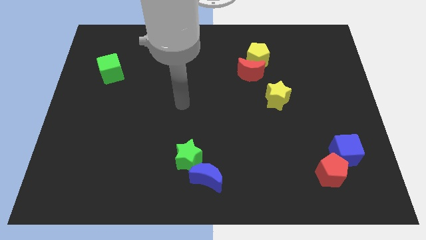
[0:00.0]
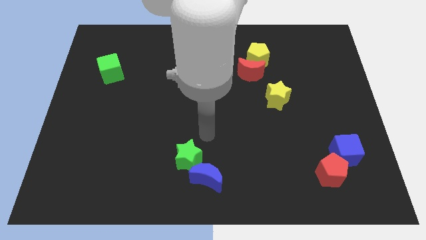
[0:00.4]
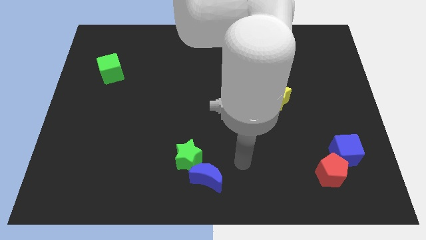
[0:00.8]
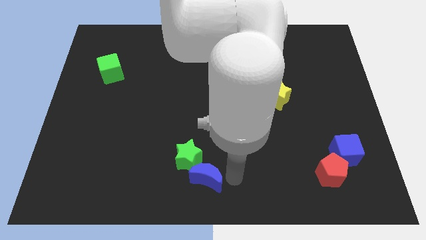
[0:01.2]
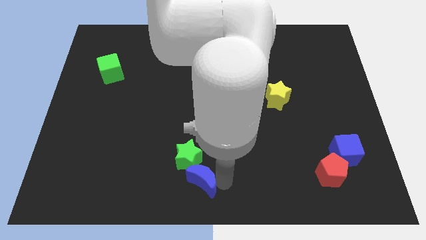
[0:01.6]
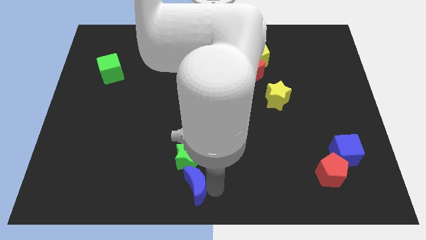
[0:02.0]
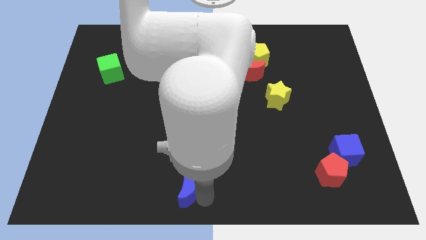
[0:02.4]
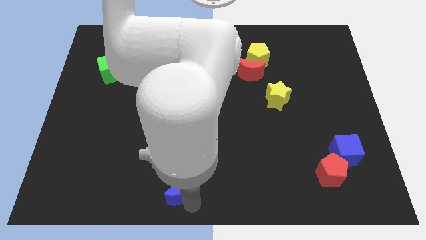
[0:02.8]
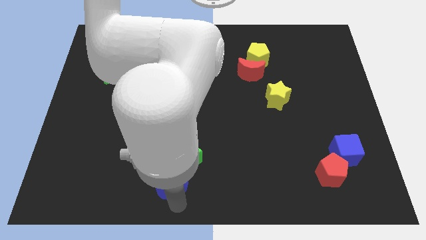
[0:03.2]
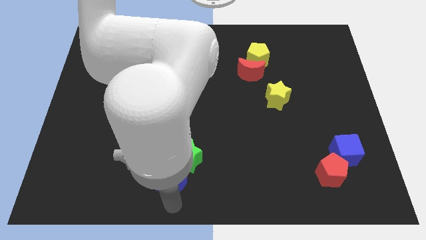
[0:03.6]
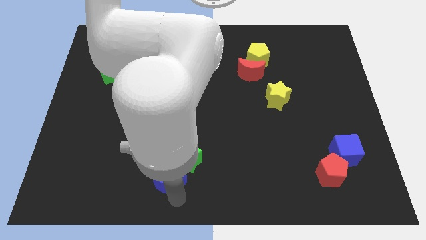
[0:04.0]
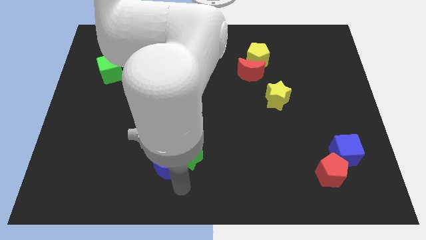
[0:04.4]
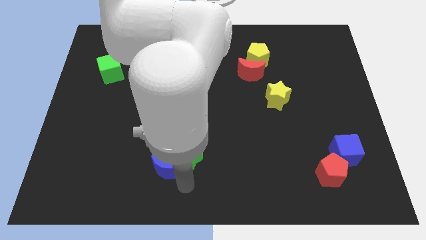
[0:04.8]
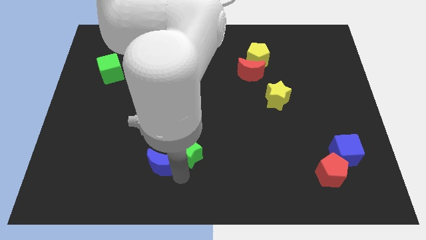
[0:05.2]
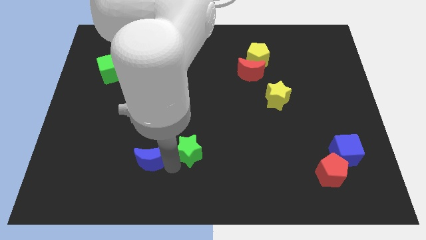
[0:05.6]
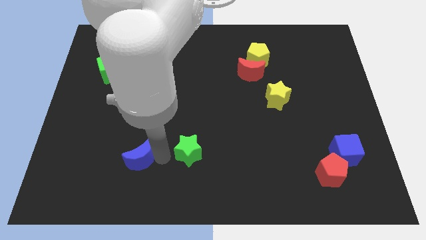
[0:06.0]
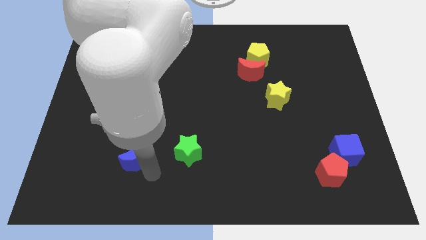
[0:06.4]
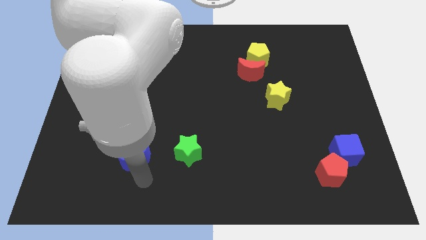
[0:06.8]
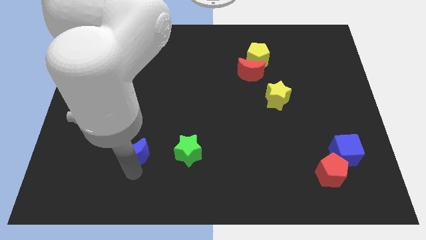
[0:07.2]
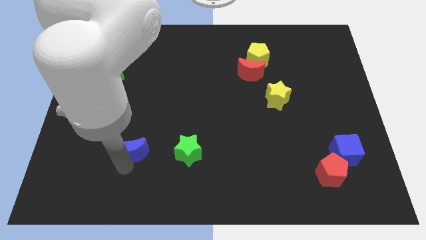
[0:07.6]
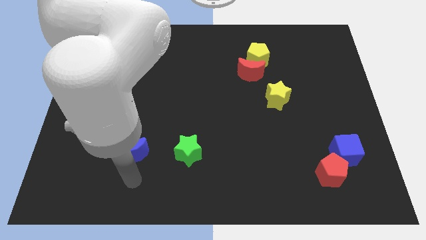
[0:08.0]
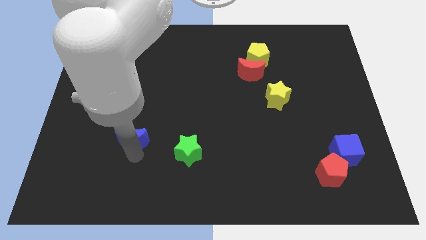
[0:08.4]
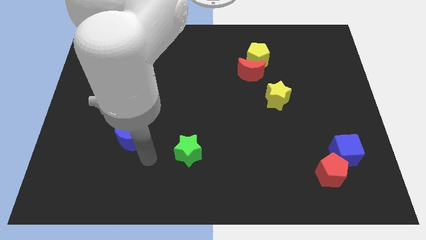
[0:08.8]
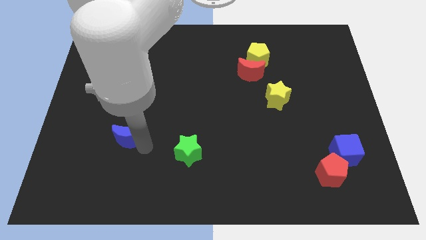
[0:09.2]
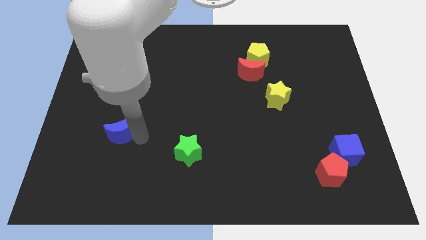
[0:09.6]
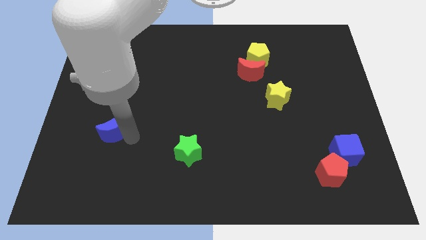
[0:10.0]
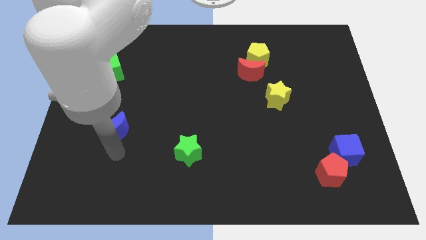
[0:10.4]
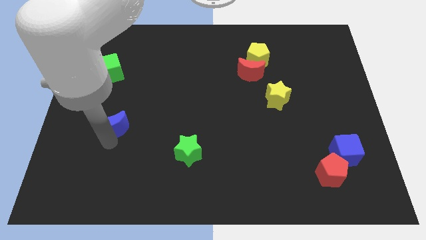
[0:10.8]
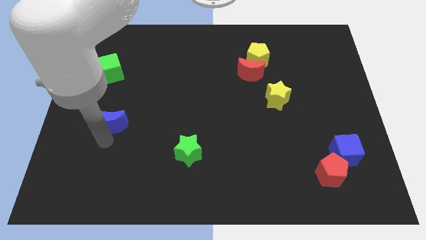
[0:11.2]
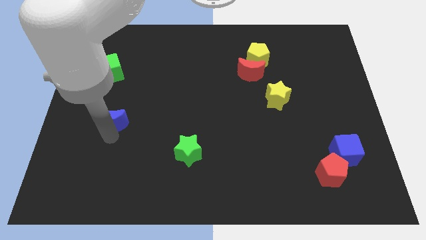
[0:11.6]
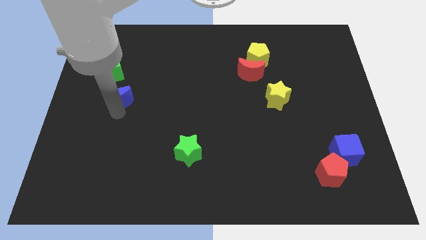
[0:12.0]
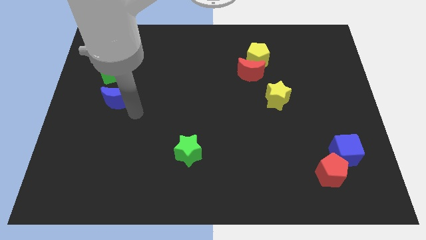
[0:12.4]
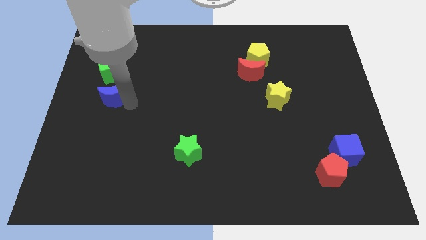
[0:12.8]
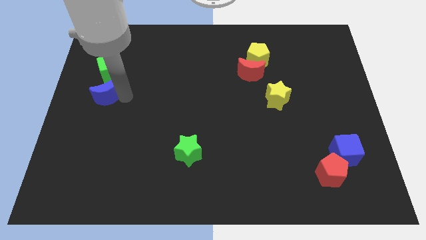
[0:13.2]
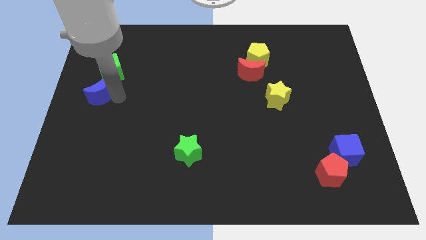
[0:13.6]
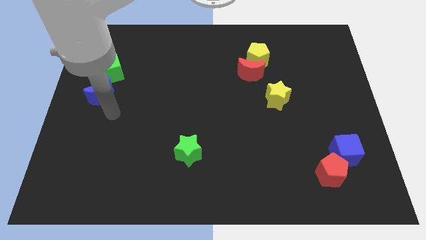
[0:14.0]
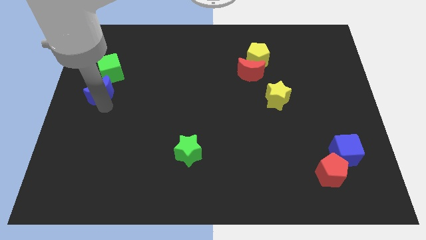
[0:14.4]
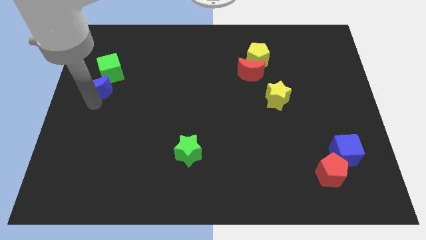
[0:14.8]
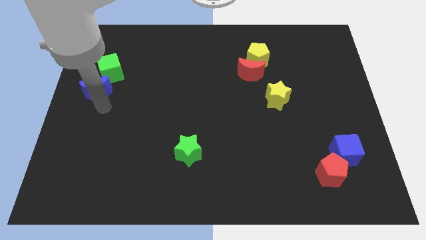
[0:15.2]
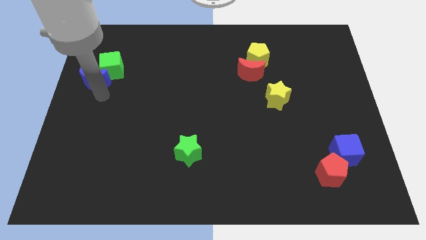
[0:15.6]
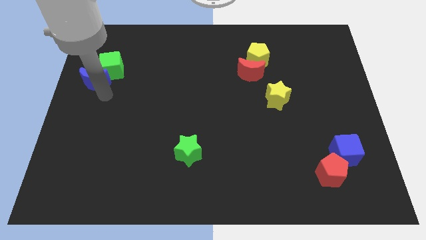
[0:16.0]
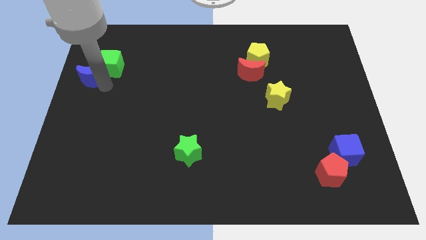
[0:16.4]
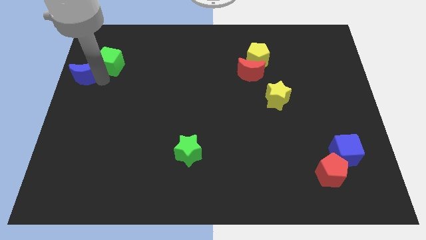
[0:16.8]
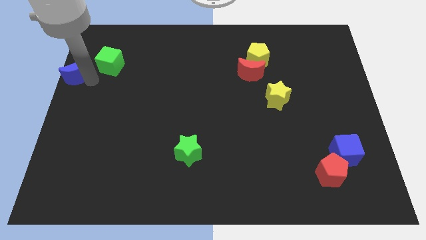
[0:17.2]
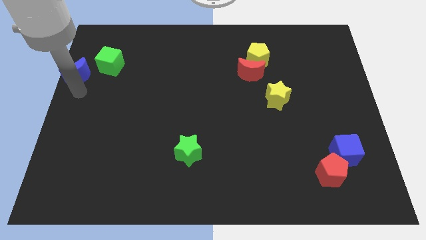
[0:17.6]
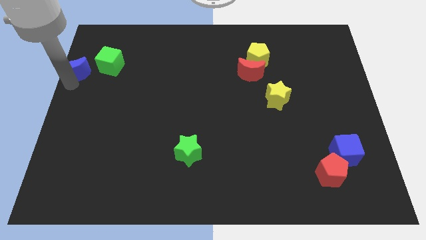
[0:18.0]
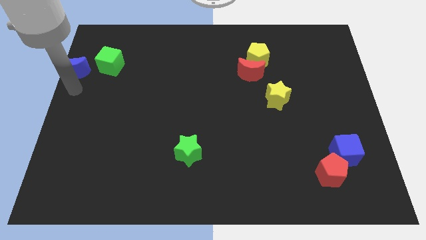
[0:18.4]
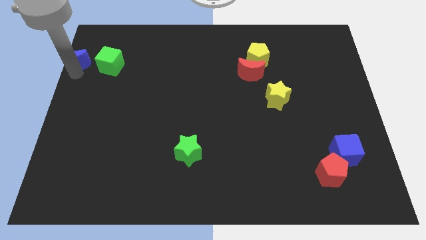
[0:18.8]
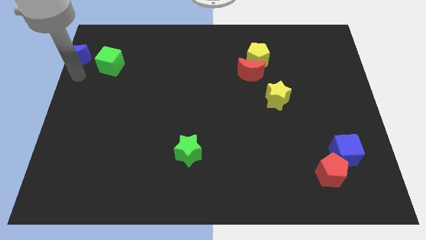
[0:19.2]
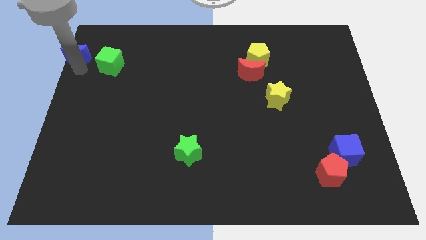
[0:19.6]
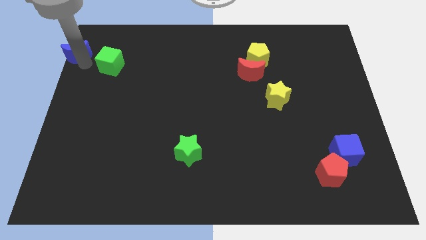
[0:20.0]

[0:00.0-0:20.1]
push the blue moon to the upper left corner
